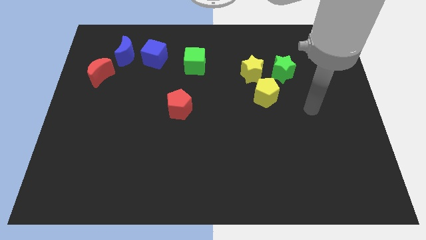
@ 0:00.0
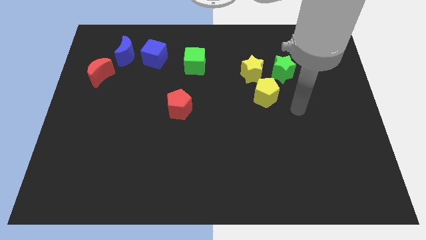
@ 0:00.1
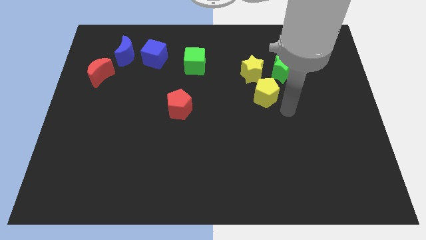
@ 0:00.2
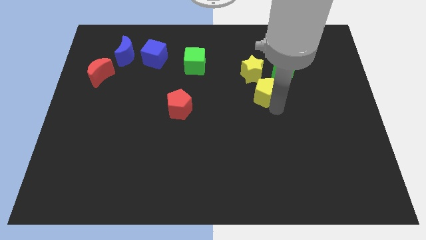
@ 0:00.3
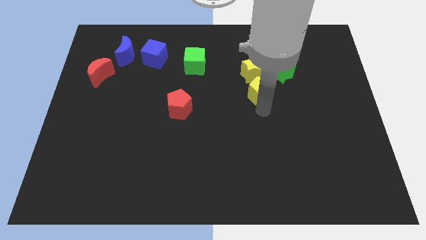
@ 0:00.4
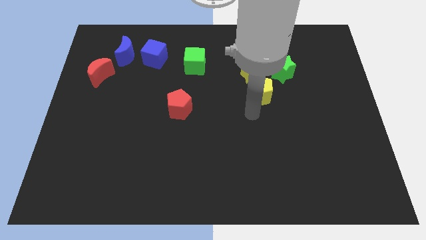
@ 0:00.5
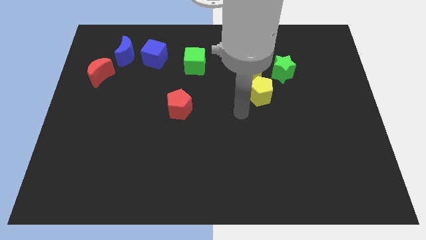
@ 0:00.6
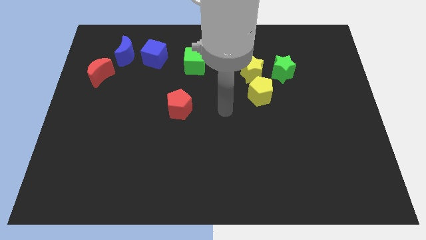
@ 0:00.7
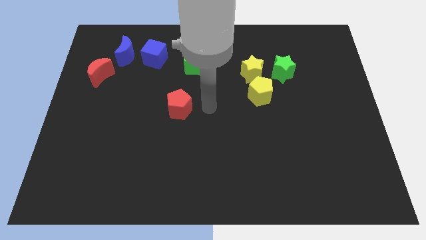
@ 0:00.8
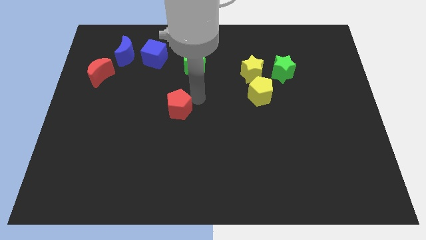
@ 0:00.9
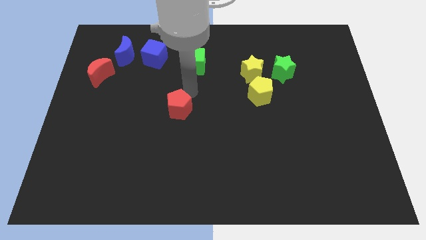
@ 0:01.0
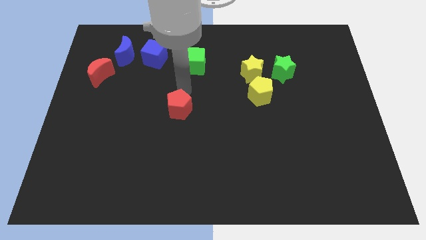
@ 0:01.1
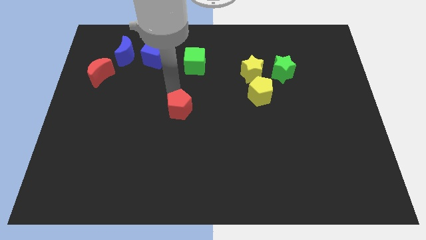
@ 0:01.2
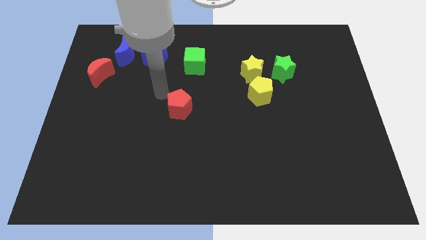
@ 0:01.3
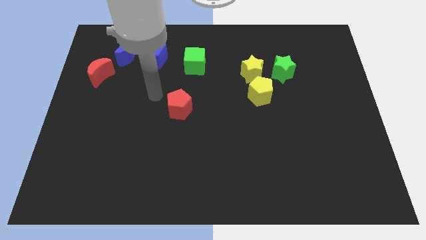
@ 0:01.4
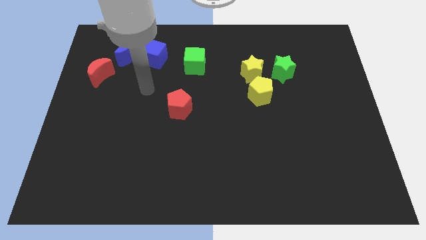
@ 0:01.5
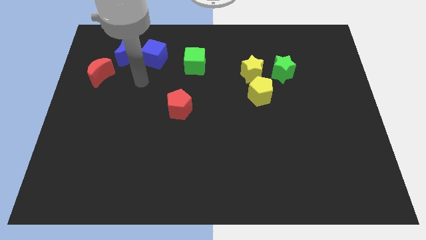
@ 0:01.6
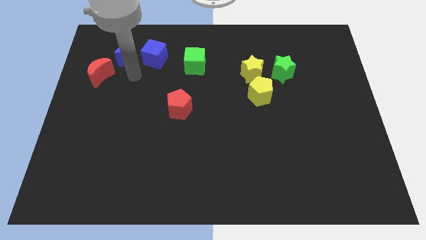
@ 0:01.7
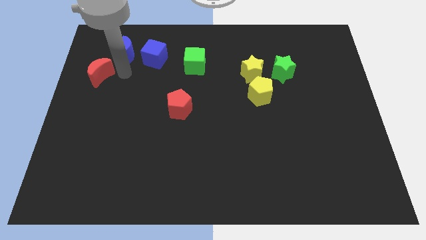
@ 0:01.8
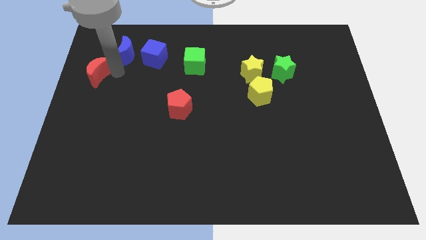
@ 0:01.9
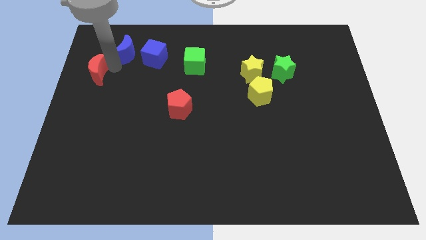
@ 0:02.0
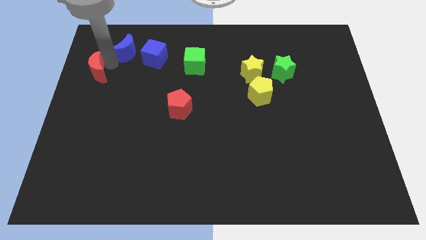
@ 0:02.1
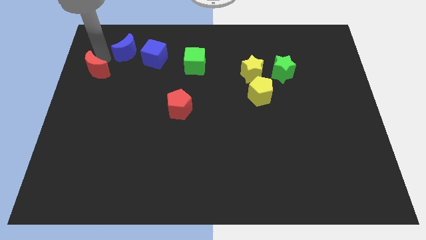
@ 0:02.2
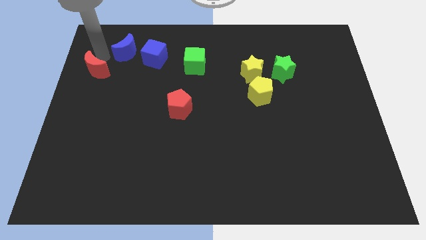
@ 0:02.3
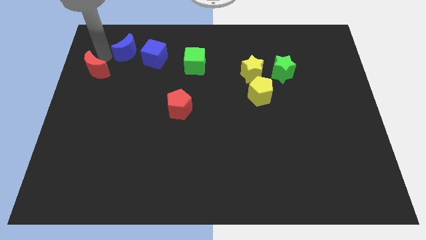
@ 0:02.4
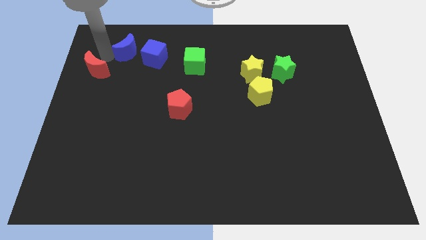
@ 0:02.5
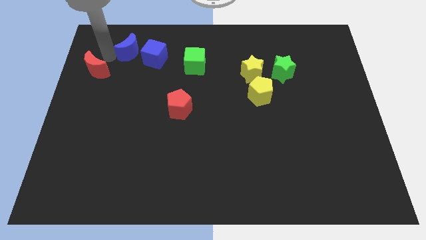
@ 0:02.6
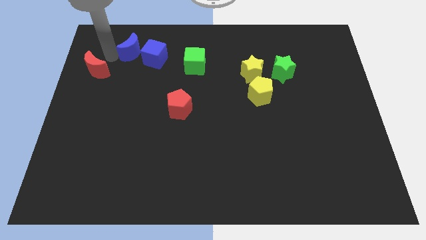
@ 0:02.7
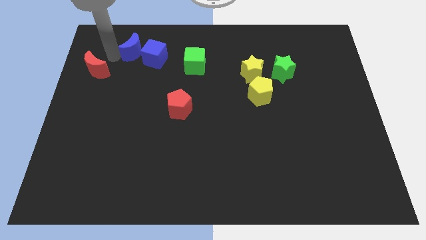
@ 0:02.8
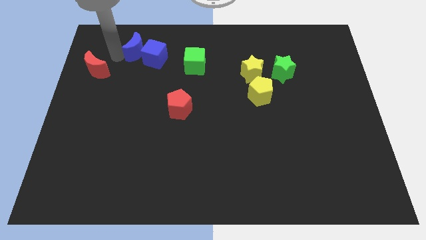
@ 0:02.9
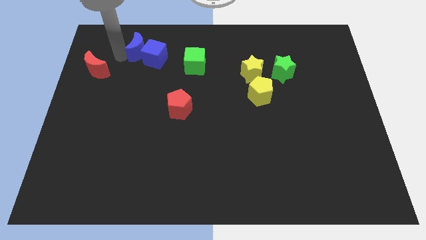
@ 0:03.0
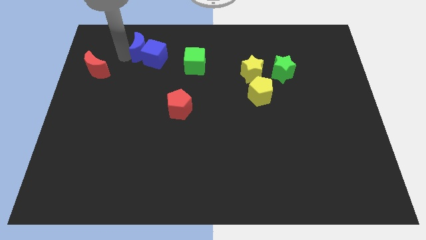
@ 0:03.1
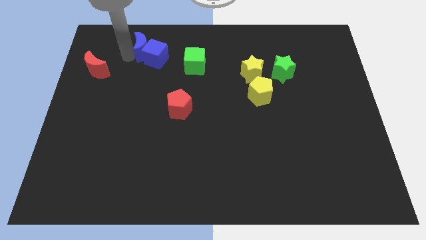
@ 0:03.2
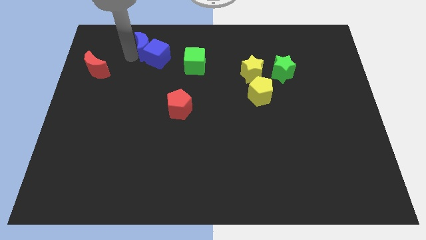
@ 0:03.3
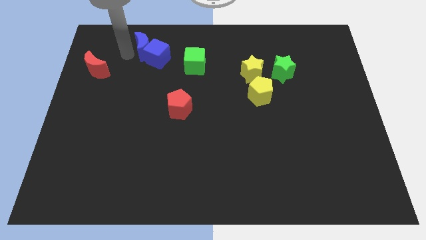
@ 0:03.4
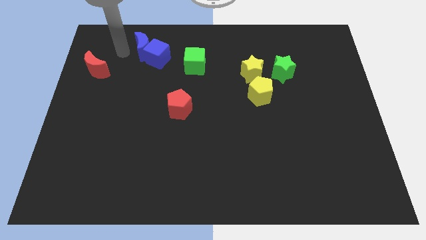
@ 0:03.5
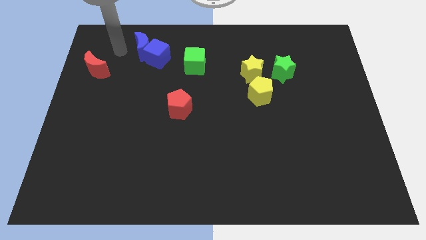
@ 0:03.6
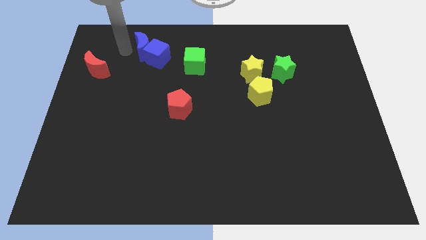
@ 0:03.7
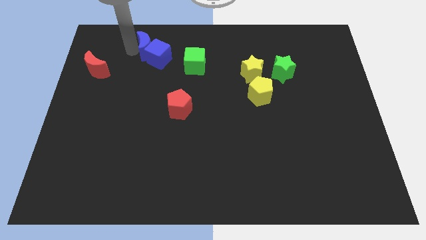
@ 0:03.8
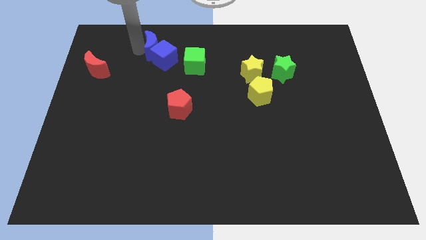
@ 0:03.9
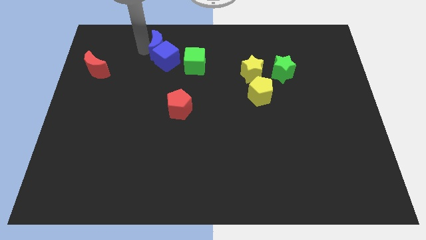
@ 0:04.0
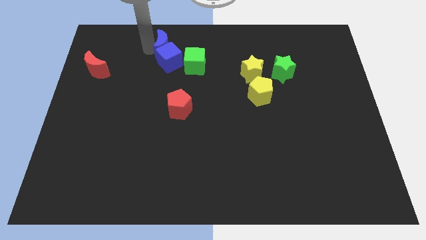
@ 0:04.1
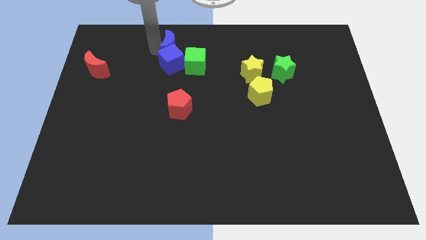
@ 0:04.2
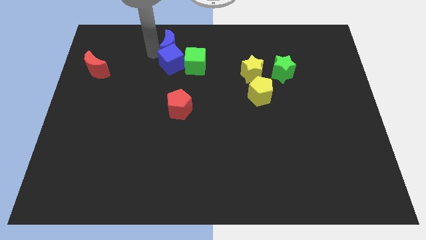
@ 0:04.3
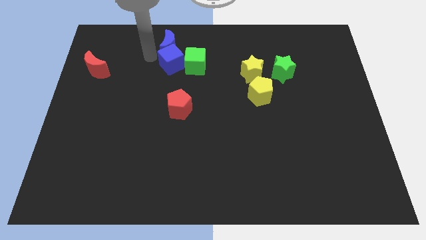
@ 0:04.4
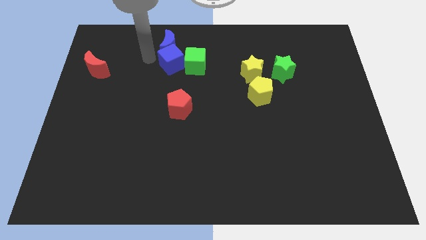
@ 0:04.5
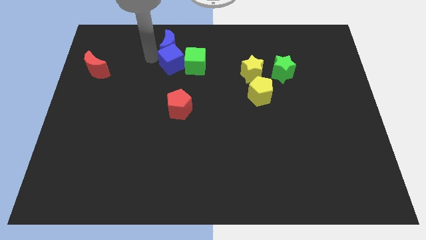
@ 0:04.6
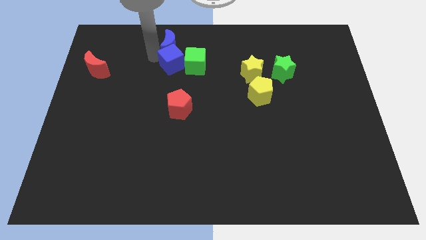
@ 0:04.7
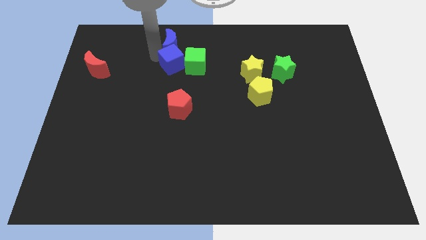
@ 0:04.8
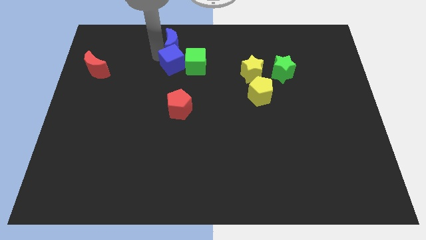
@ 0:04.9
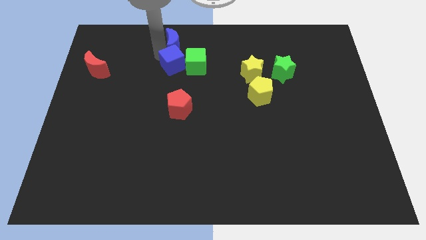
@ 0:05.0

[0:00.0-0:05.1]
put the blue moon to the top side

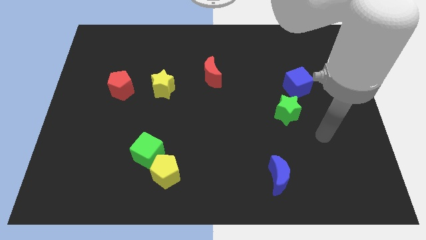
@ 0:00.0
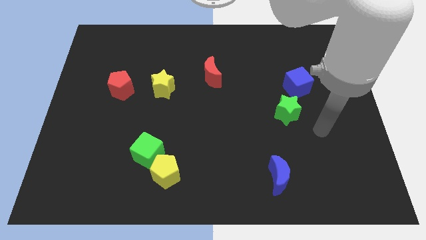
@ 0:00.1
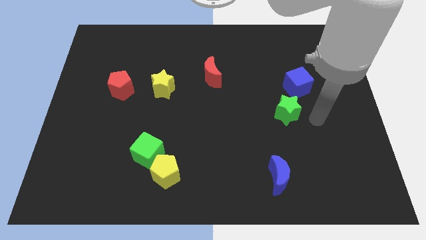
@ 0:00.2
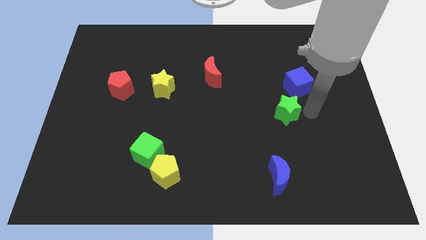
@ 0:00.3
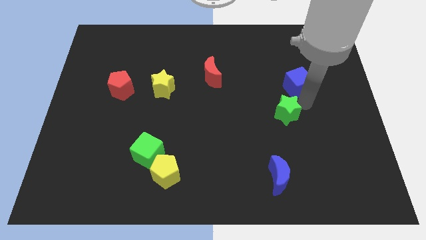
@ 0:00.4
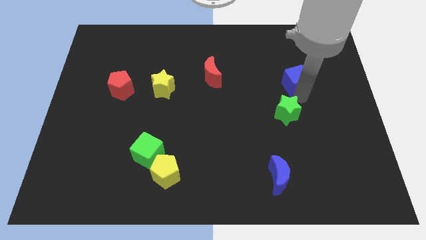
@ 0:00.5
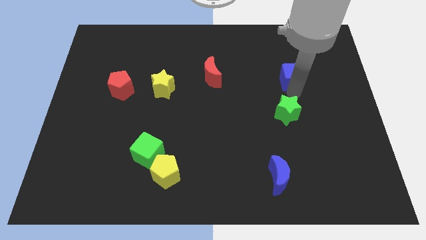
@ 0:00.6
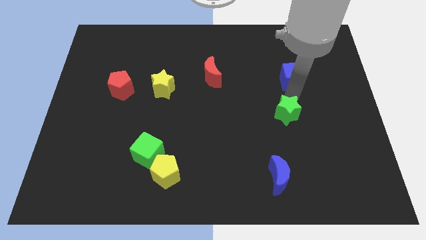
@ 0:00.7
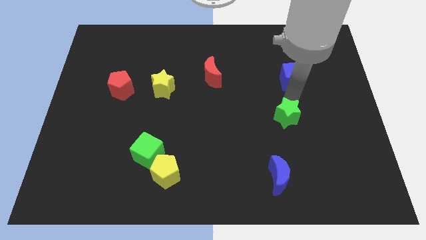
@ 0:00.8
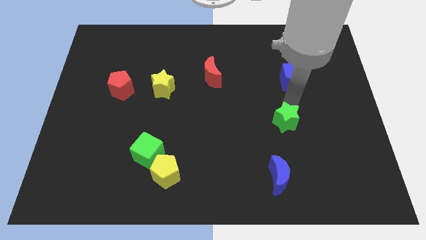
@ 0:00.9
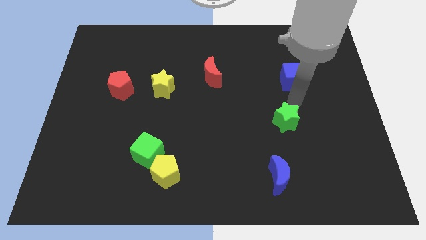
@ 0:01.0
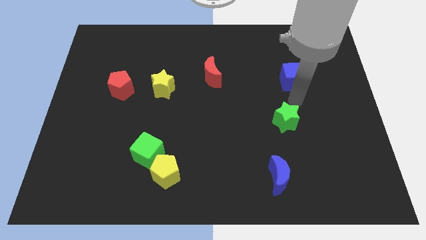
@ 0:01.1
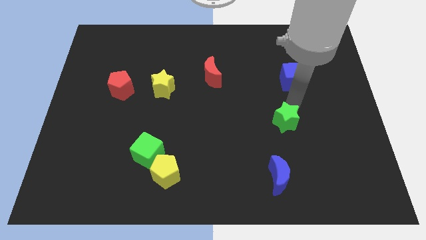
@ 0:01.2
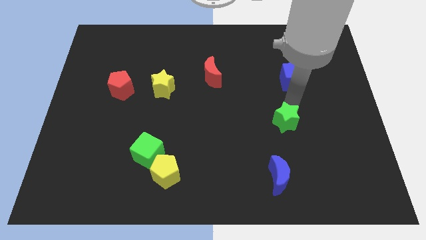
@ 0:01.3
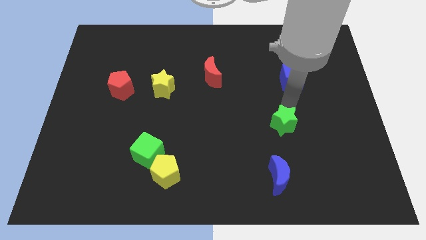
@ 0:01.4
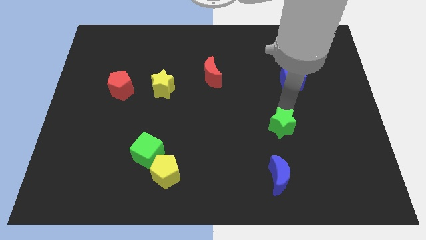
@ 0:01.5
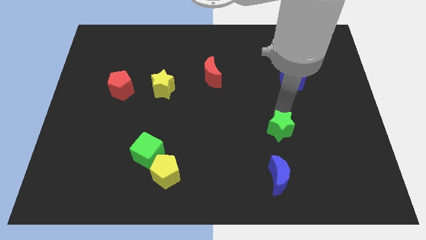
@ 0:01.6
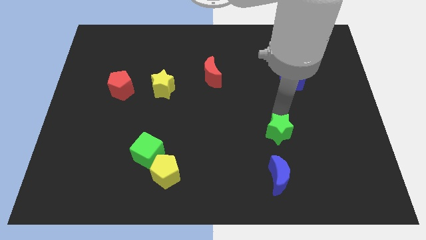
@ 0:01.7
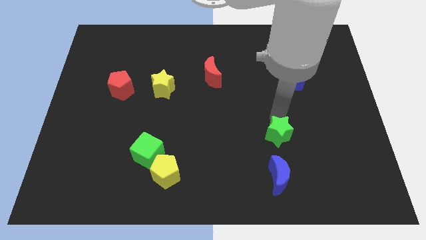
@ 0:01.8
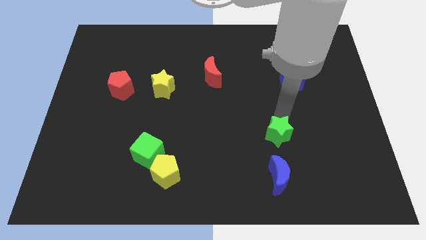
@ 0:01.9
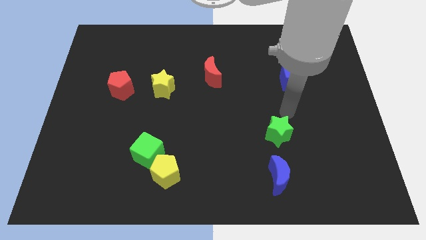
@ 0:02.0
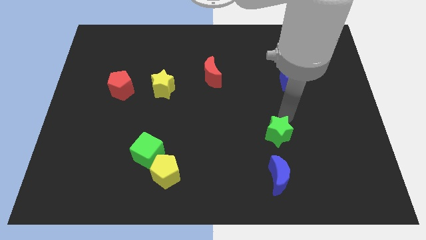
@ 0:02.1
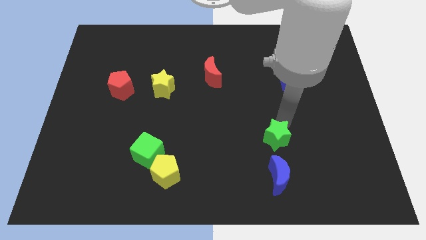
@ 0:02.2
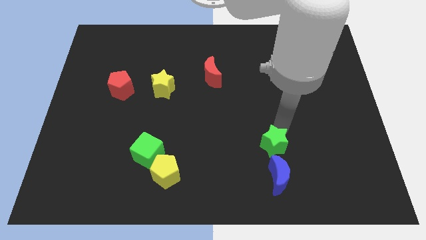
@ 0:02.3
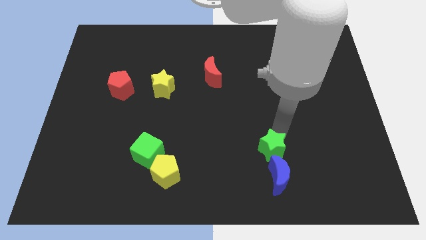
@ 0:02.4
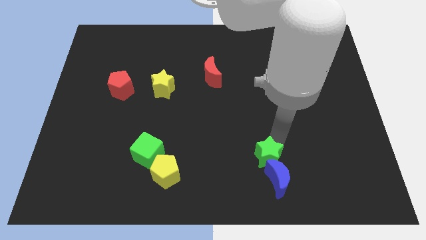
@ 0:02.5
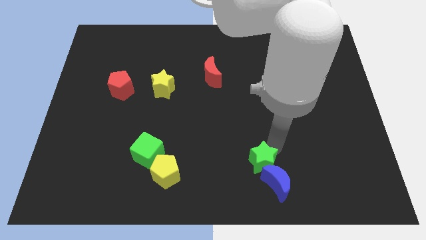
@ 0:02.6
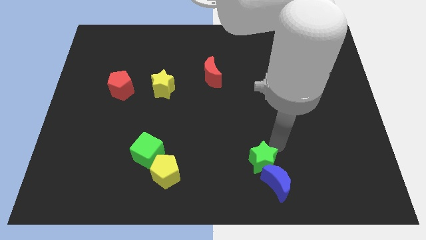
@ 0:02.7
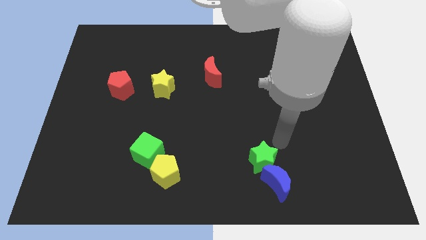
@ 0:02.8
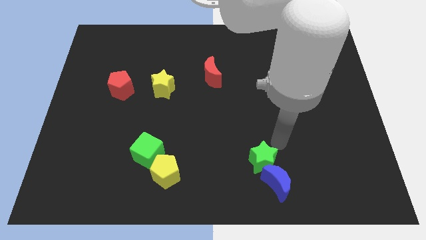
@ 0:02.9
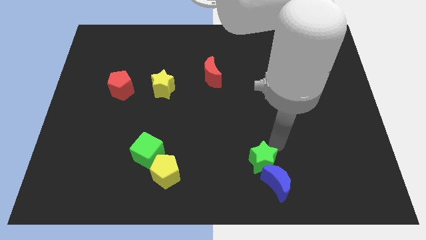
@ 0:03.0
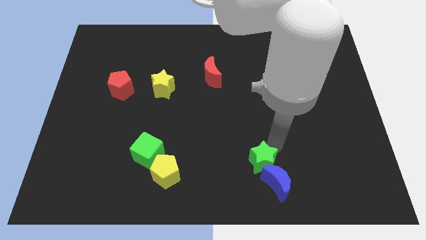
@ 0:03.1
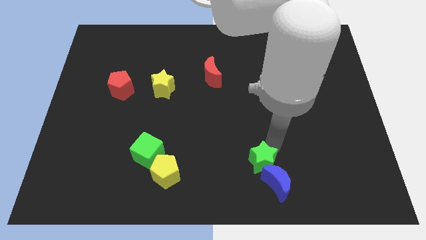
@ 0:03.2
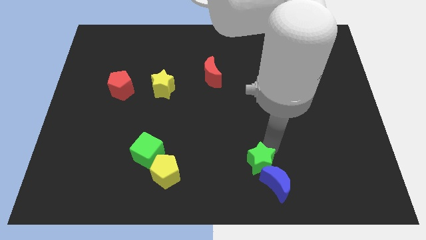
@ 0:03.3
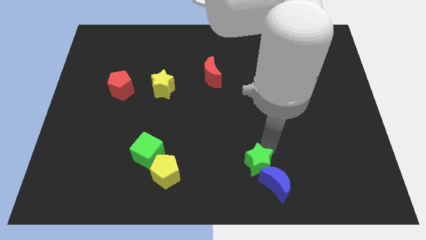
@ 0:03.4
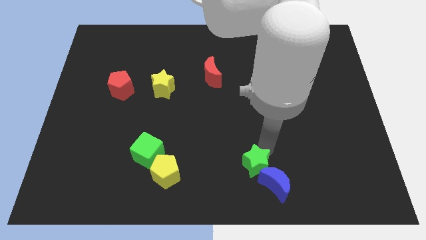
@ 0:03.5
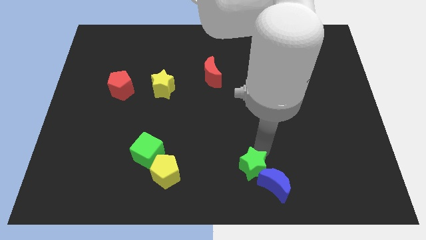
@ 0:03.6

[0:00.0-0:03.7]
move the green star to the bottom
